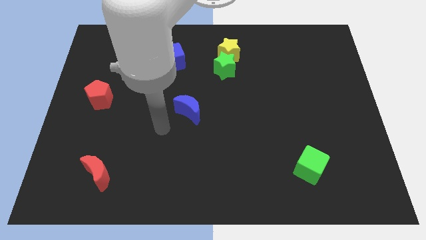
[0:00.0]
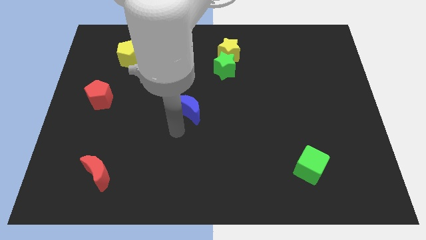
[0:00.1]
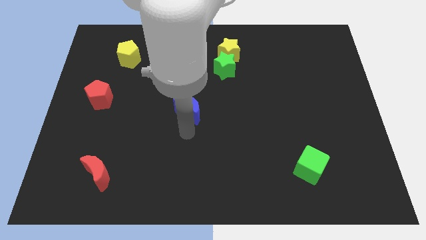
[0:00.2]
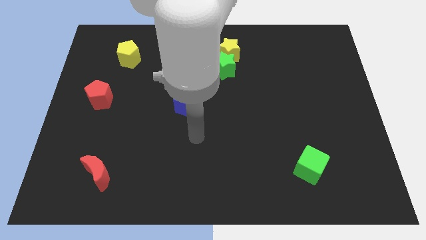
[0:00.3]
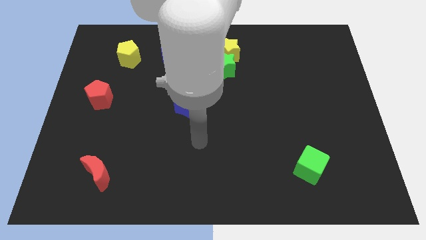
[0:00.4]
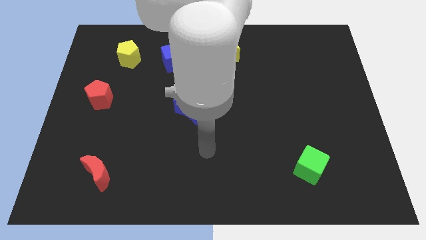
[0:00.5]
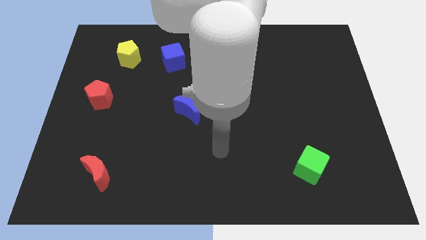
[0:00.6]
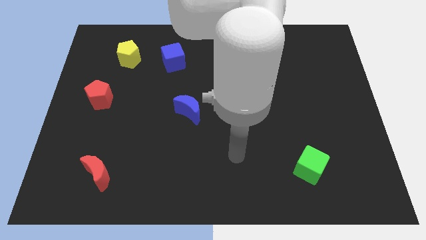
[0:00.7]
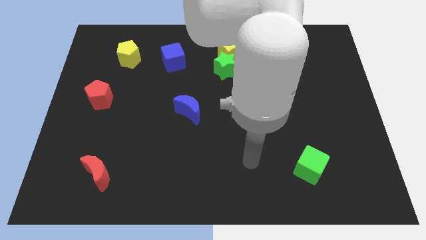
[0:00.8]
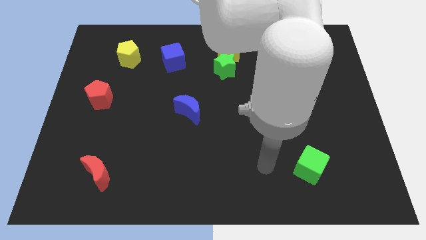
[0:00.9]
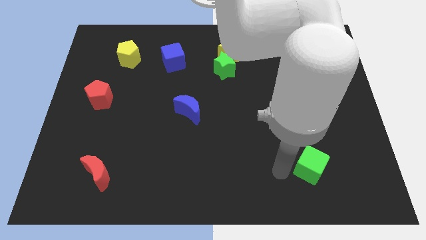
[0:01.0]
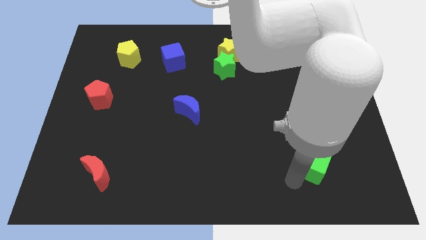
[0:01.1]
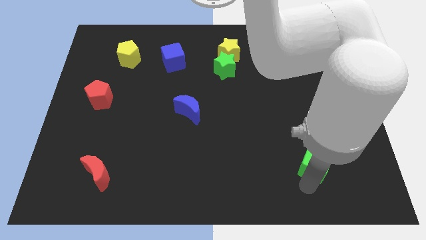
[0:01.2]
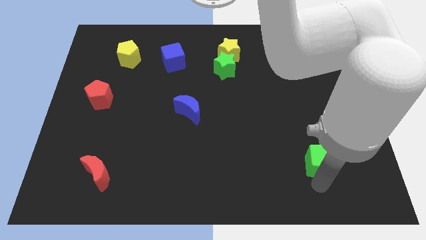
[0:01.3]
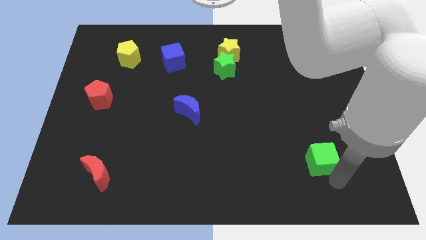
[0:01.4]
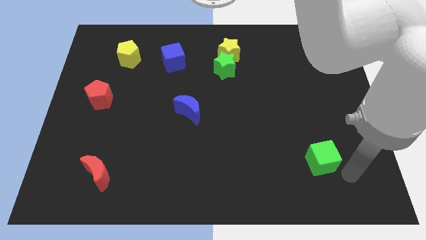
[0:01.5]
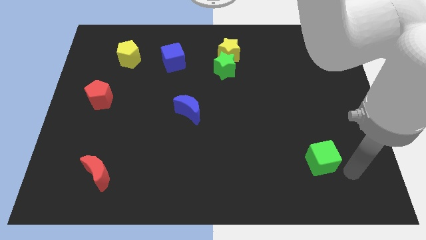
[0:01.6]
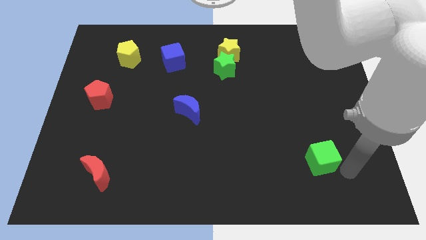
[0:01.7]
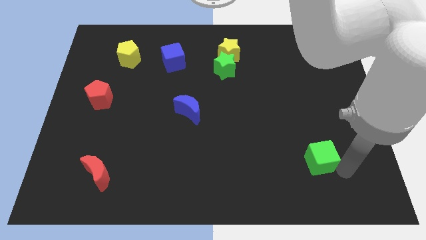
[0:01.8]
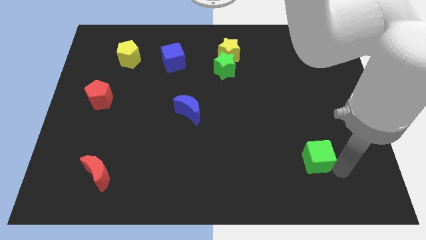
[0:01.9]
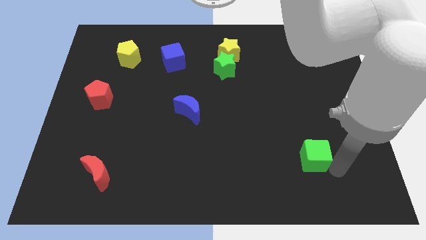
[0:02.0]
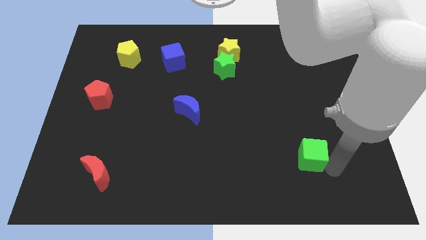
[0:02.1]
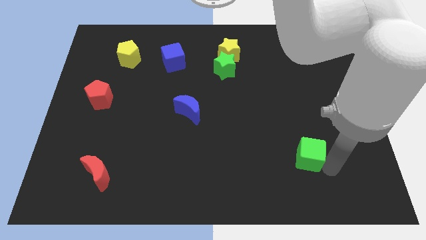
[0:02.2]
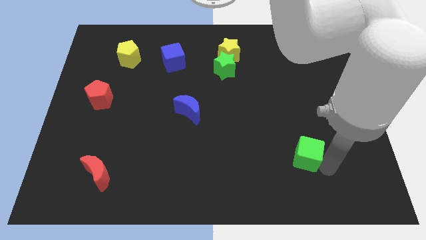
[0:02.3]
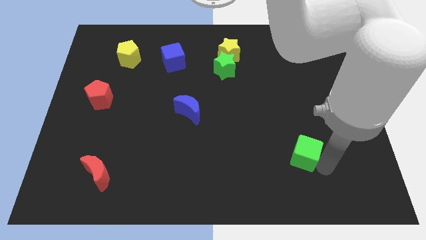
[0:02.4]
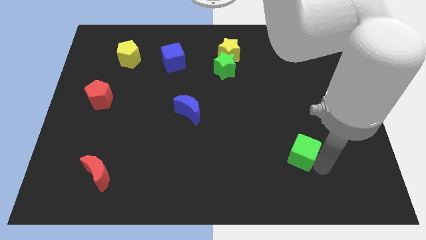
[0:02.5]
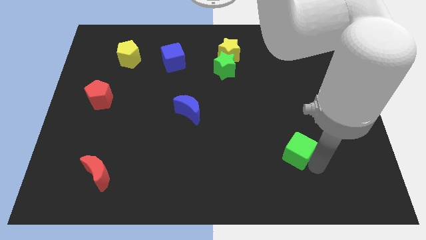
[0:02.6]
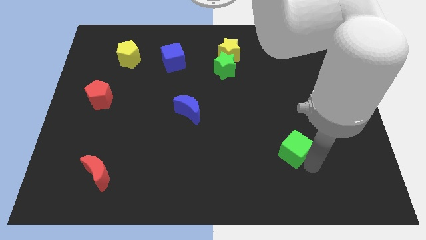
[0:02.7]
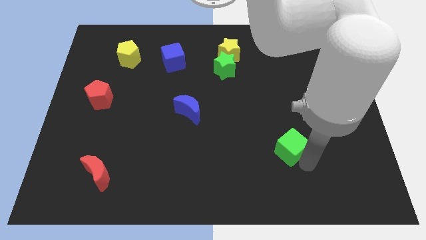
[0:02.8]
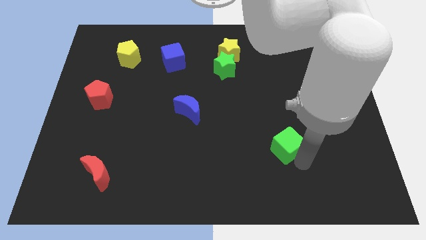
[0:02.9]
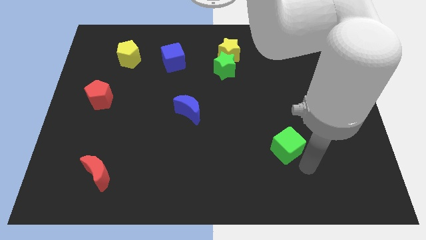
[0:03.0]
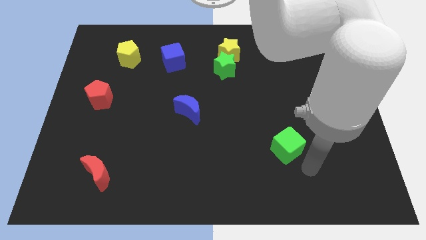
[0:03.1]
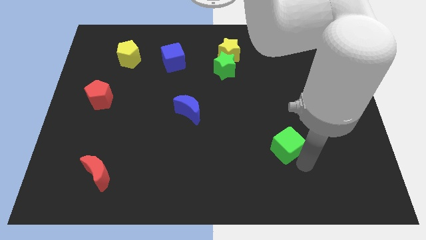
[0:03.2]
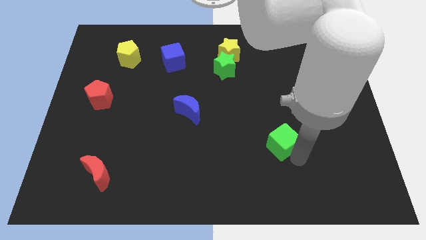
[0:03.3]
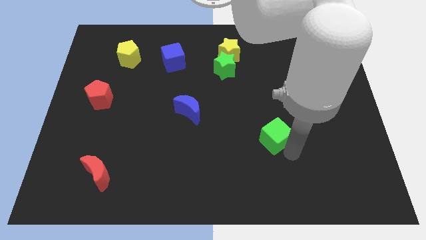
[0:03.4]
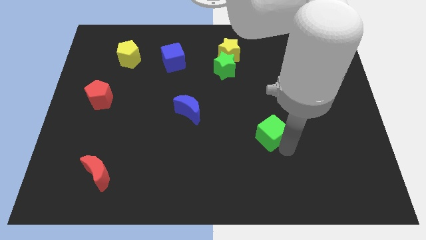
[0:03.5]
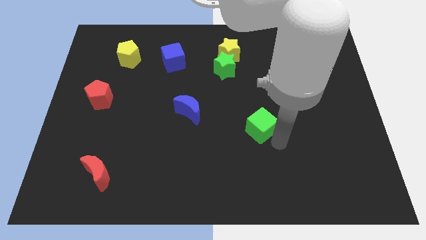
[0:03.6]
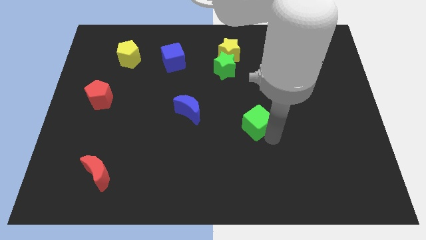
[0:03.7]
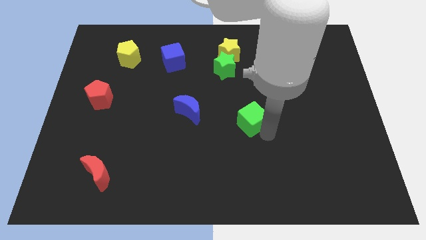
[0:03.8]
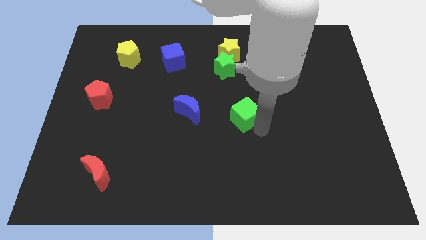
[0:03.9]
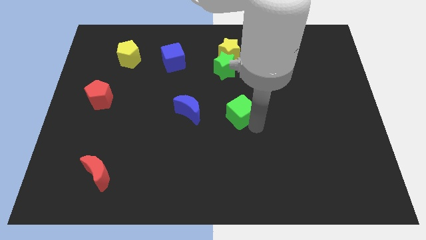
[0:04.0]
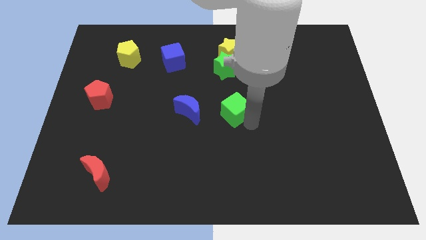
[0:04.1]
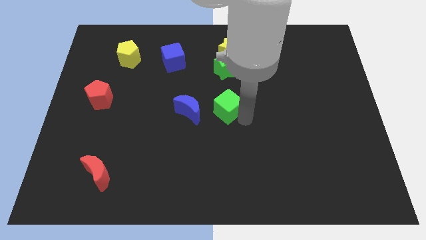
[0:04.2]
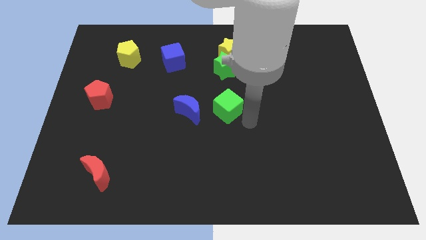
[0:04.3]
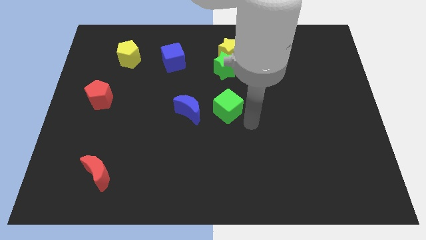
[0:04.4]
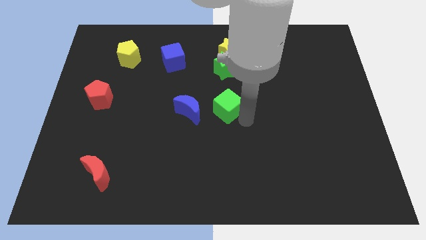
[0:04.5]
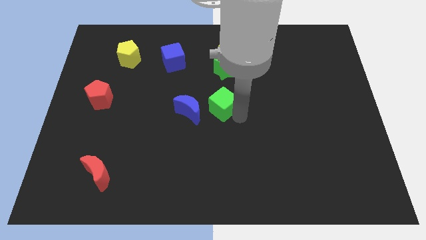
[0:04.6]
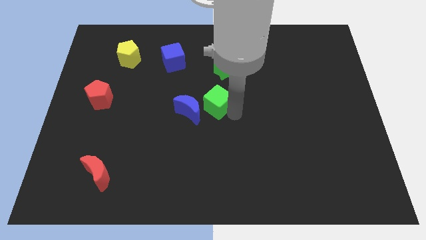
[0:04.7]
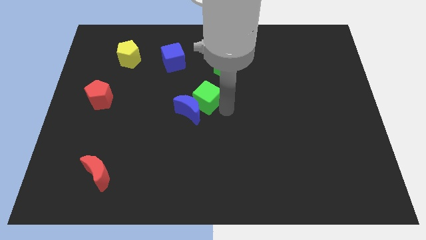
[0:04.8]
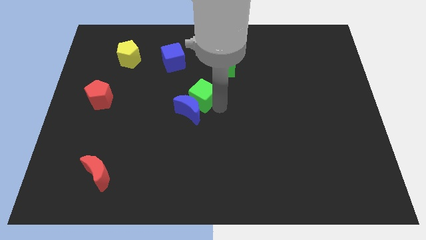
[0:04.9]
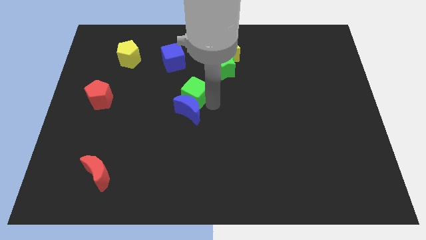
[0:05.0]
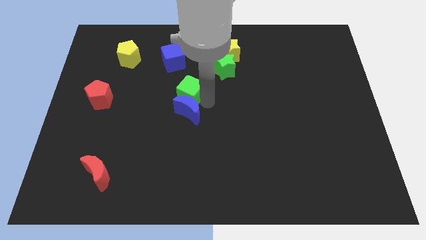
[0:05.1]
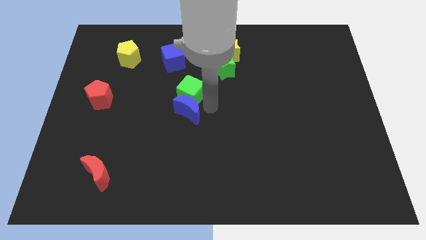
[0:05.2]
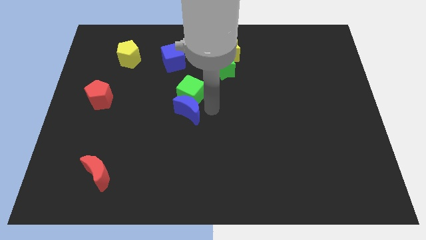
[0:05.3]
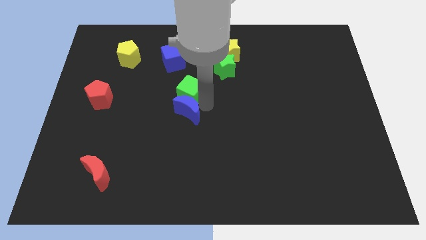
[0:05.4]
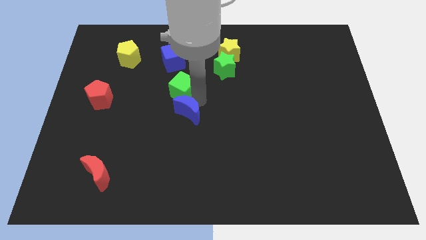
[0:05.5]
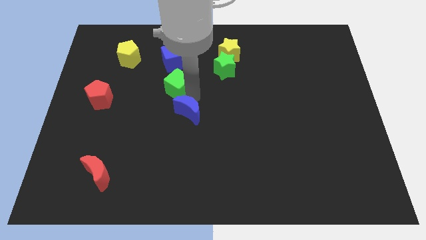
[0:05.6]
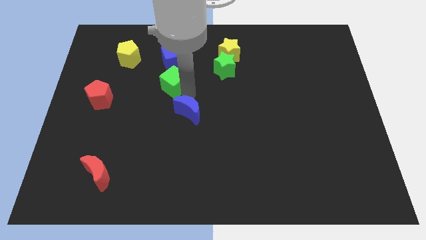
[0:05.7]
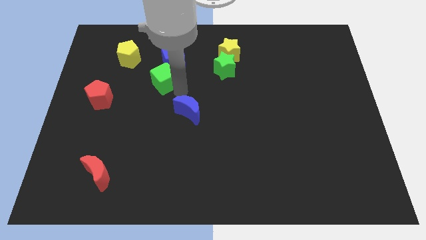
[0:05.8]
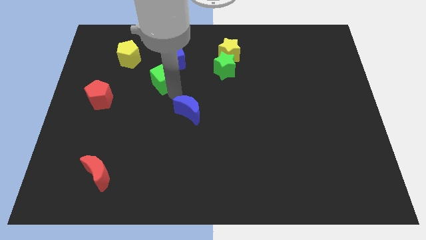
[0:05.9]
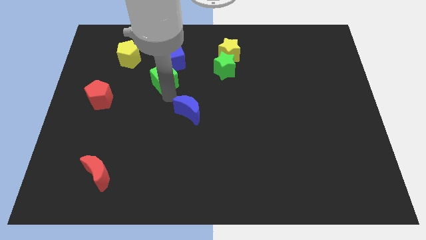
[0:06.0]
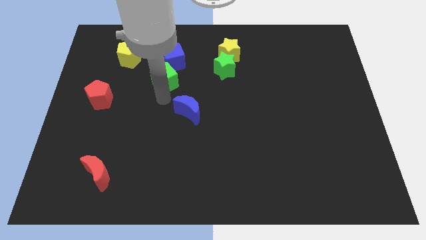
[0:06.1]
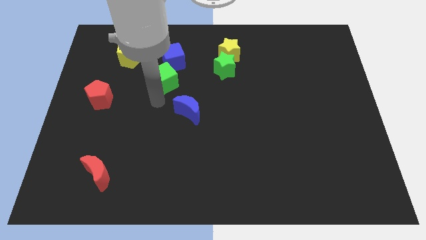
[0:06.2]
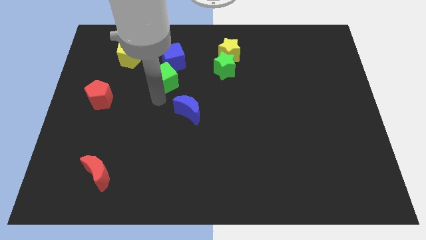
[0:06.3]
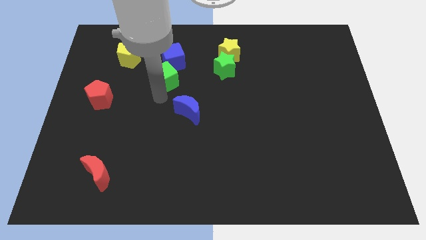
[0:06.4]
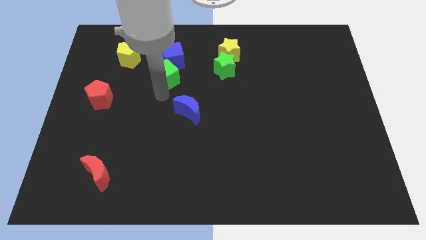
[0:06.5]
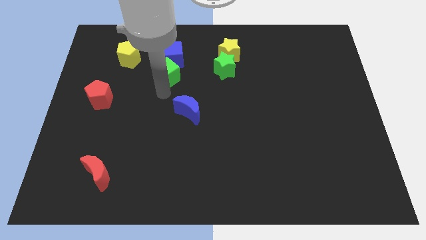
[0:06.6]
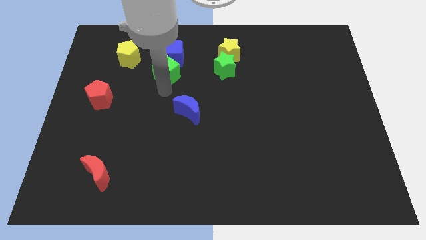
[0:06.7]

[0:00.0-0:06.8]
push the green cube to the blue cube

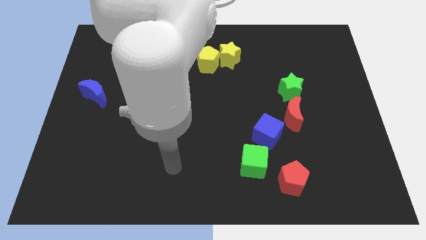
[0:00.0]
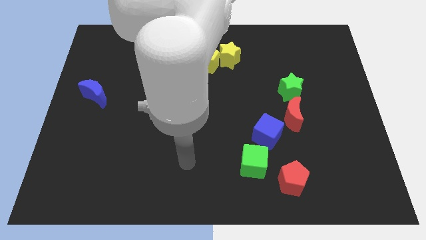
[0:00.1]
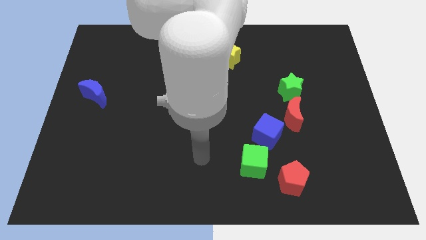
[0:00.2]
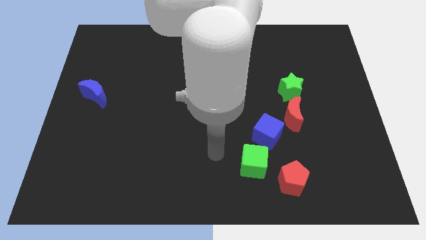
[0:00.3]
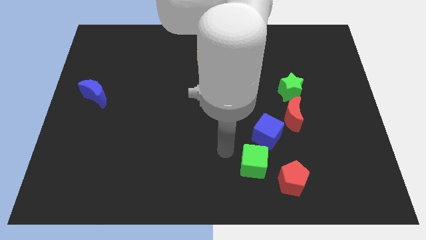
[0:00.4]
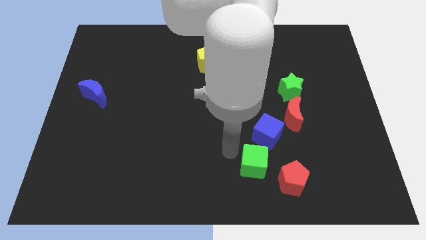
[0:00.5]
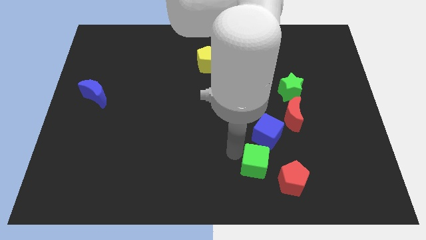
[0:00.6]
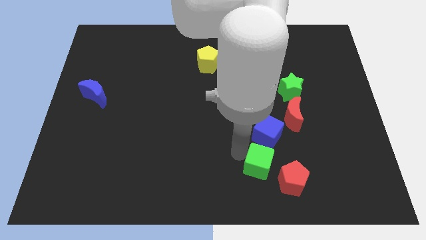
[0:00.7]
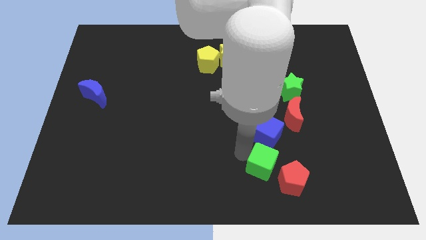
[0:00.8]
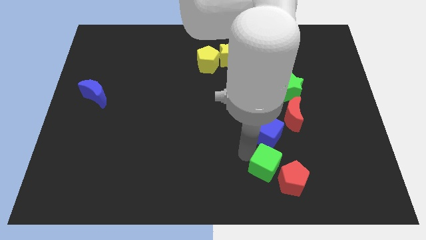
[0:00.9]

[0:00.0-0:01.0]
push the green cube next to the red pentagon
